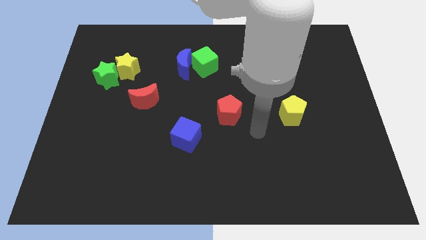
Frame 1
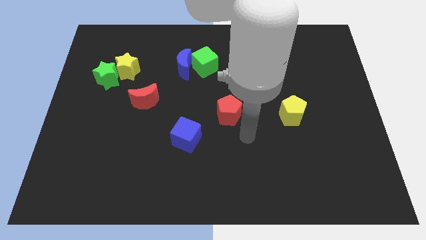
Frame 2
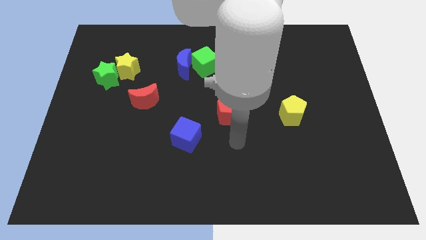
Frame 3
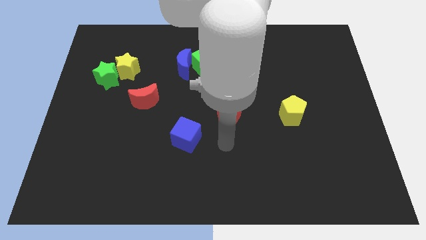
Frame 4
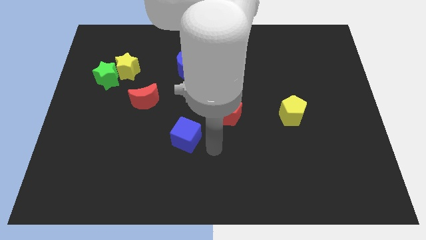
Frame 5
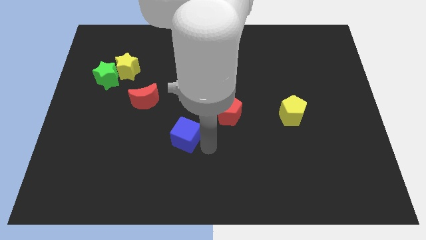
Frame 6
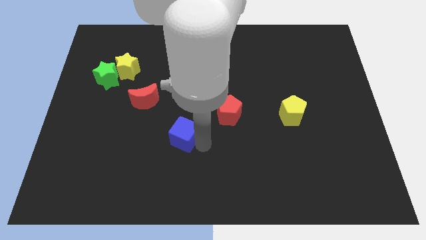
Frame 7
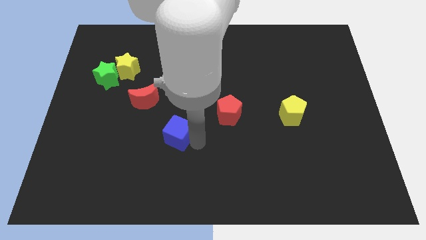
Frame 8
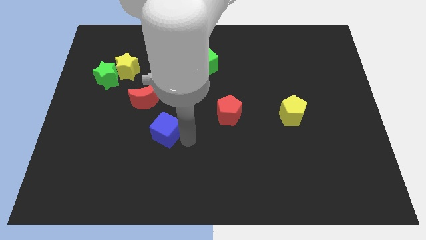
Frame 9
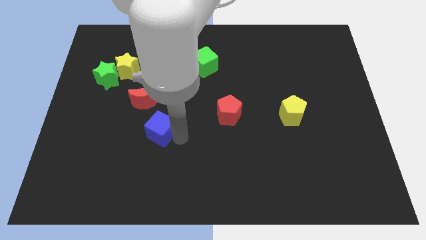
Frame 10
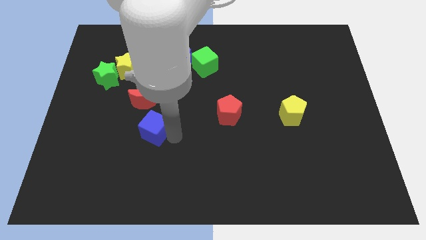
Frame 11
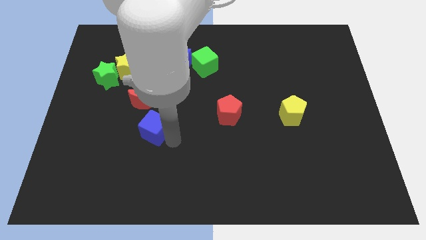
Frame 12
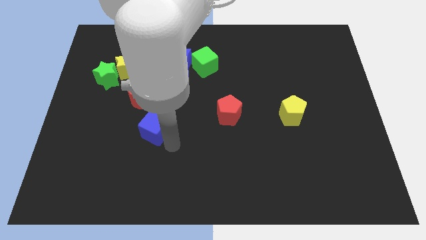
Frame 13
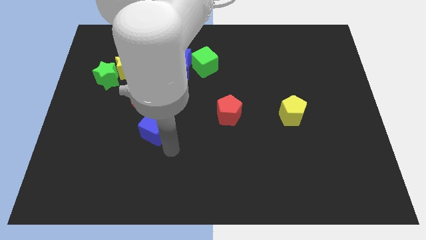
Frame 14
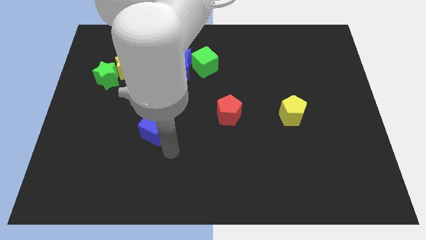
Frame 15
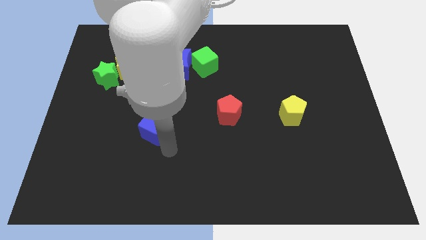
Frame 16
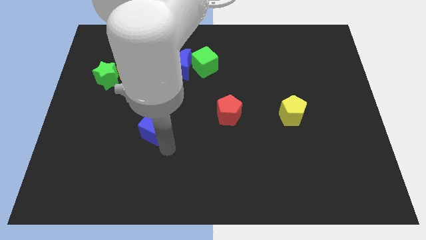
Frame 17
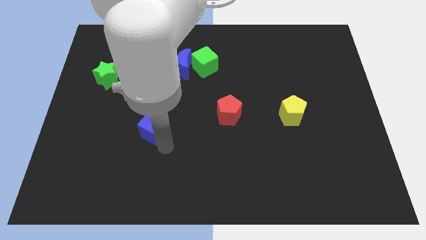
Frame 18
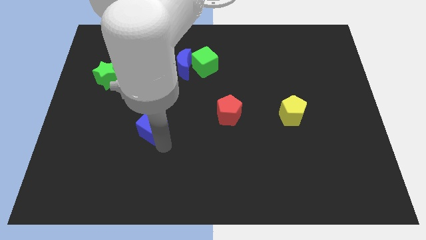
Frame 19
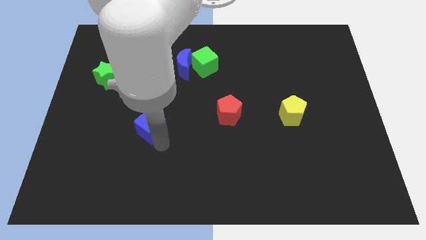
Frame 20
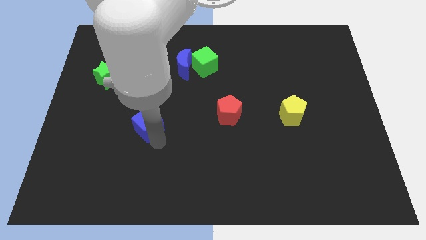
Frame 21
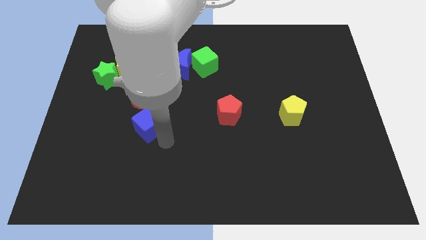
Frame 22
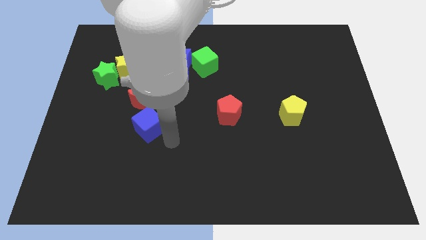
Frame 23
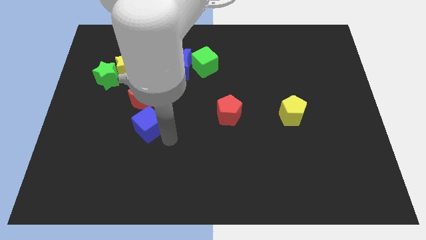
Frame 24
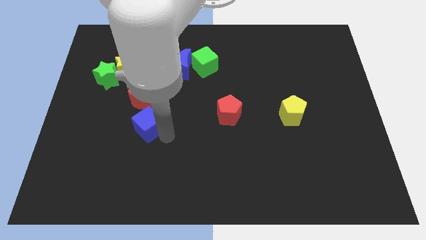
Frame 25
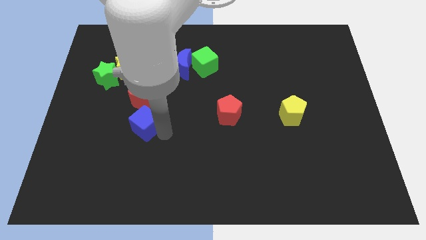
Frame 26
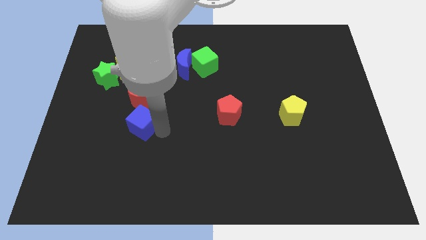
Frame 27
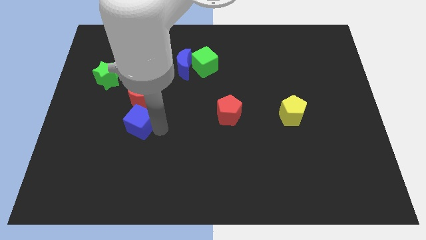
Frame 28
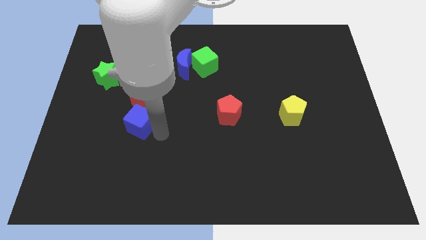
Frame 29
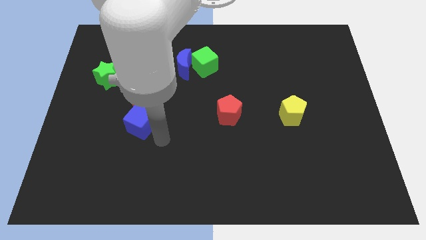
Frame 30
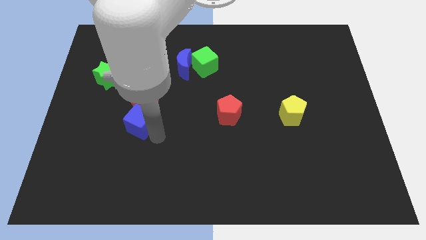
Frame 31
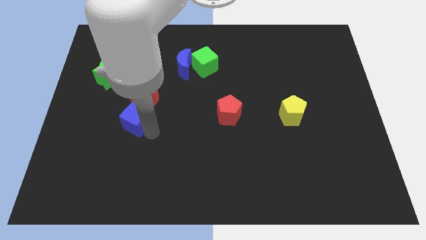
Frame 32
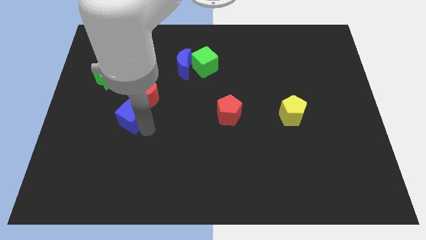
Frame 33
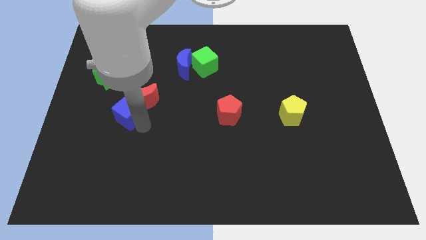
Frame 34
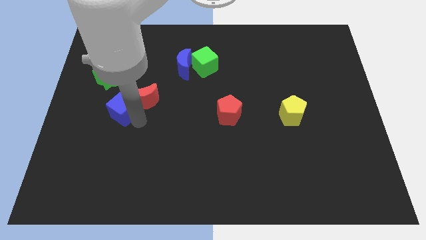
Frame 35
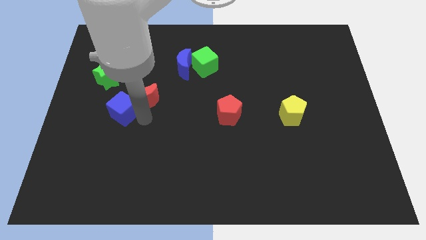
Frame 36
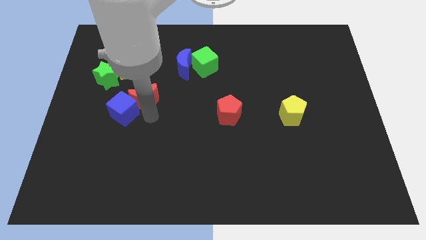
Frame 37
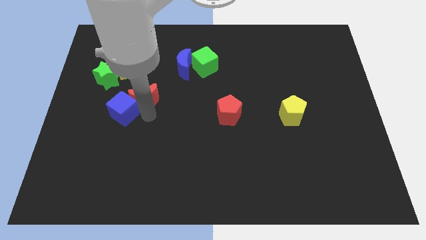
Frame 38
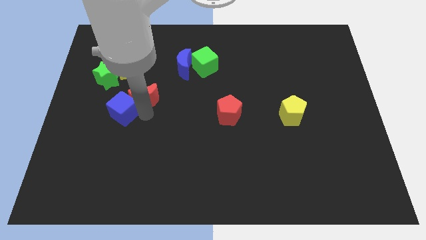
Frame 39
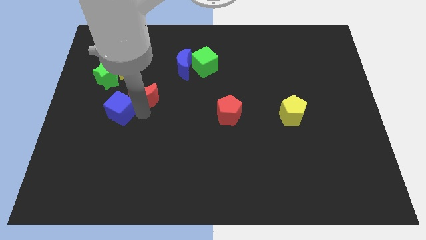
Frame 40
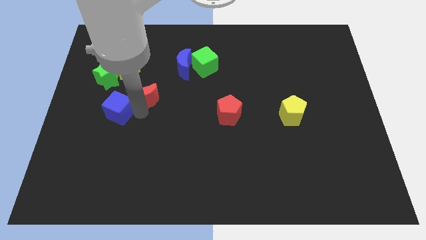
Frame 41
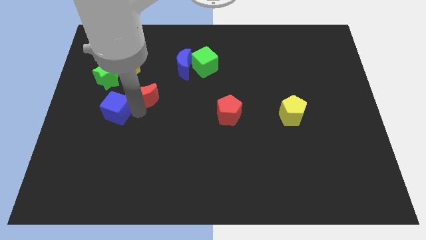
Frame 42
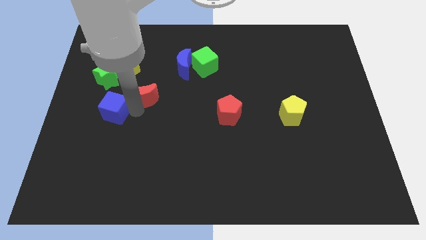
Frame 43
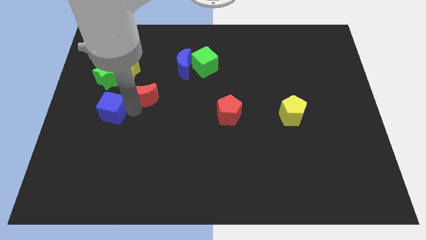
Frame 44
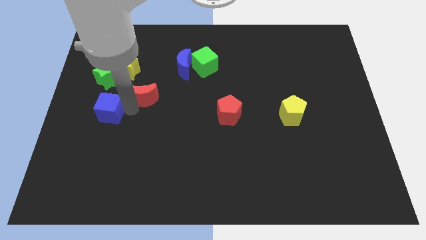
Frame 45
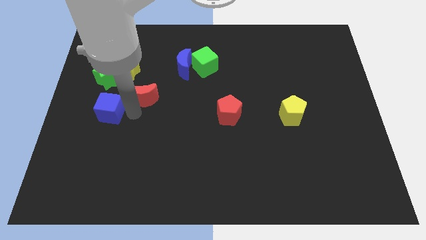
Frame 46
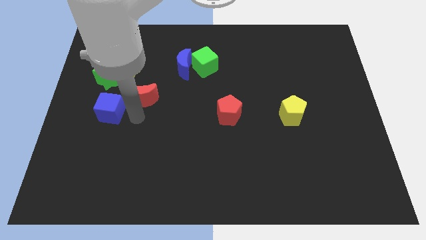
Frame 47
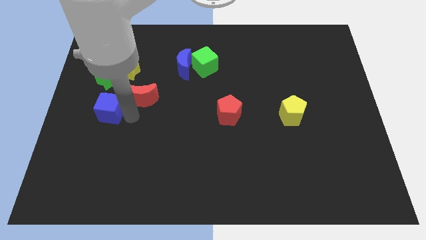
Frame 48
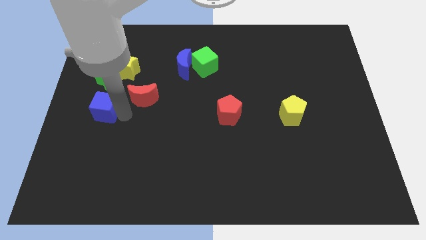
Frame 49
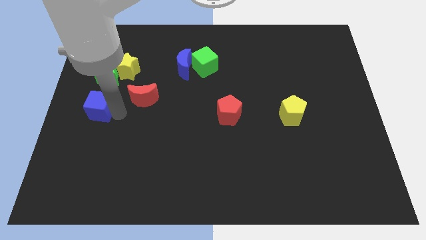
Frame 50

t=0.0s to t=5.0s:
push the blue cube to the left side

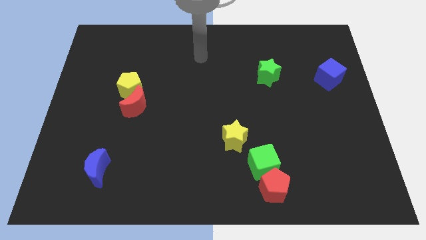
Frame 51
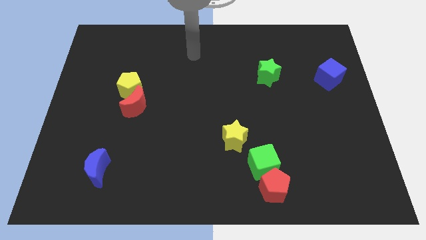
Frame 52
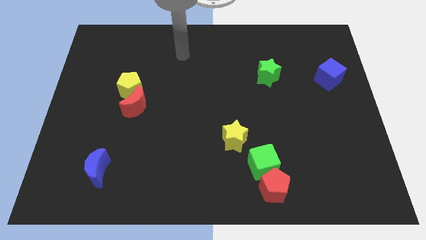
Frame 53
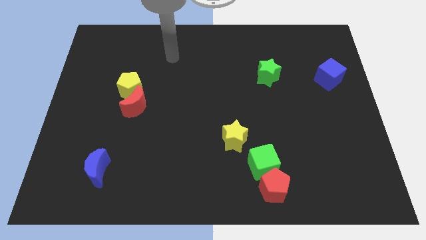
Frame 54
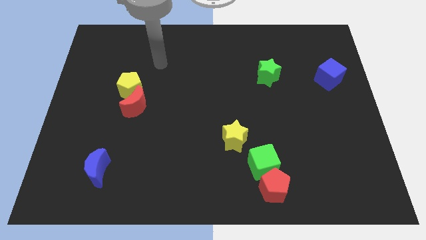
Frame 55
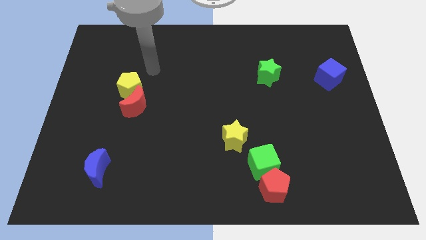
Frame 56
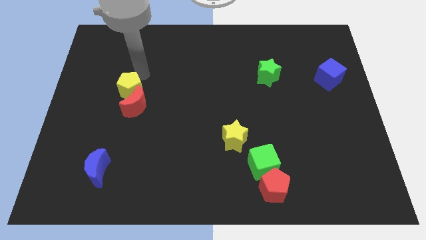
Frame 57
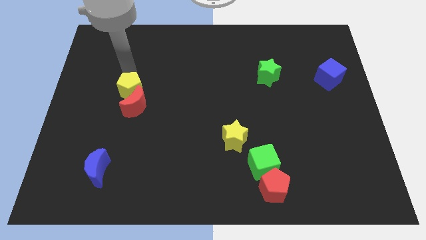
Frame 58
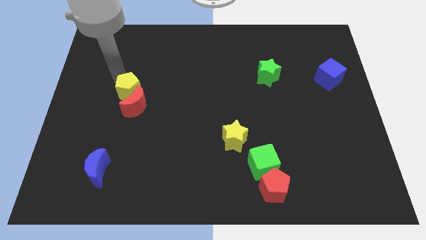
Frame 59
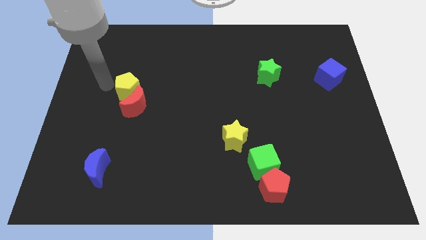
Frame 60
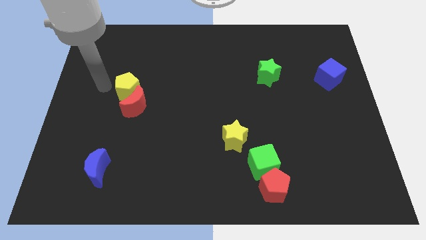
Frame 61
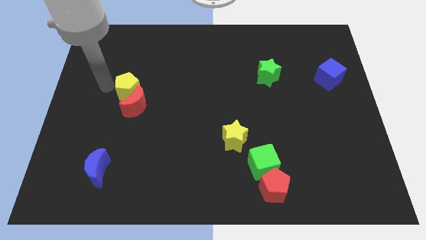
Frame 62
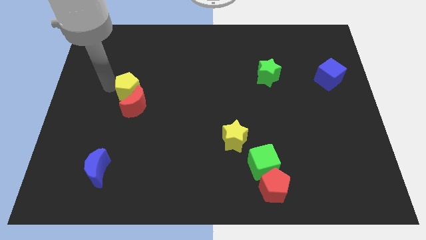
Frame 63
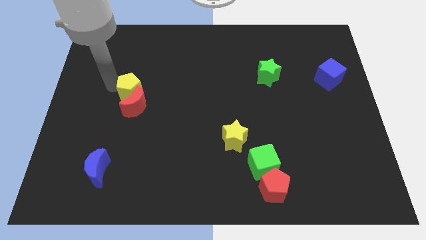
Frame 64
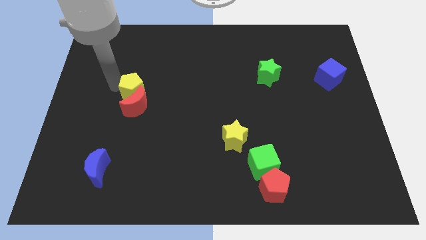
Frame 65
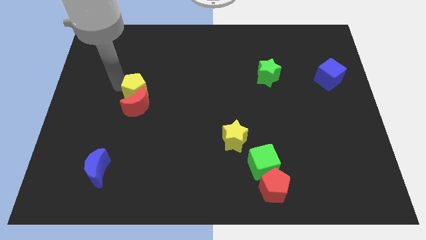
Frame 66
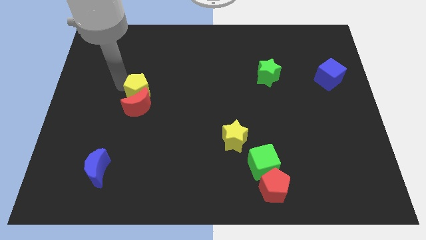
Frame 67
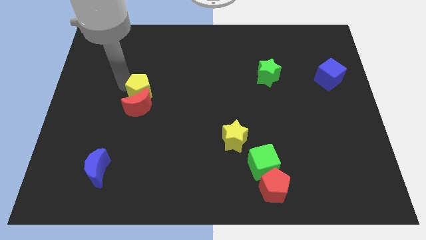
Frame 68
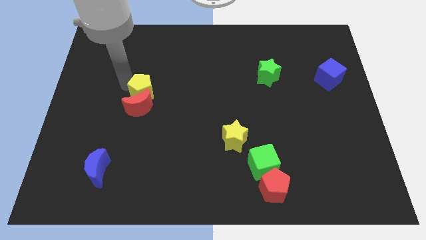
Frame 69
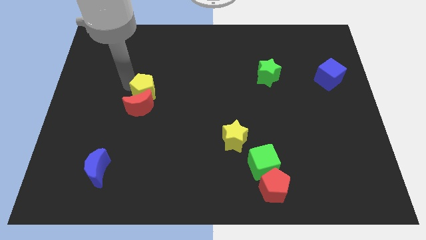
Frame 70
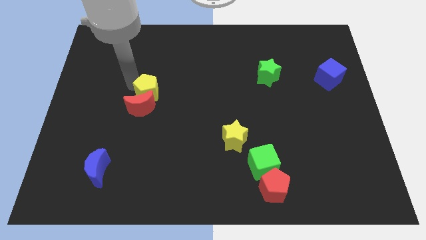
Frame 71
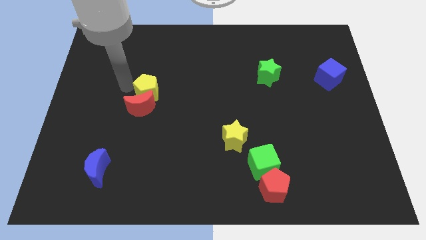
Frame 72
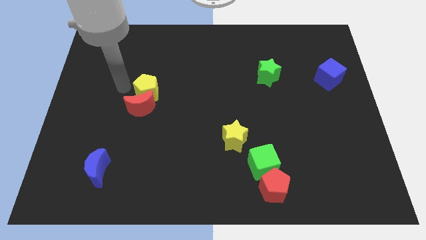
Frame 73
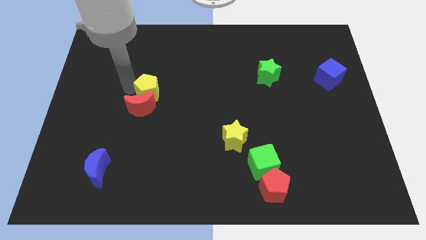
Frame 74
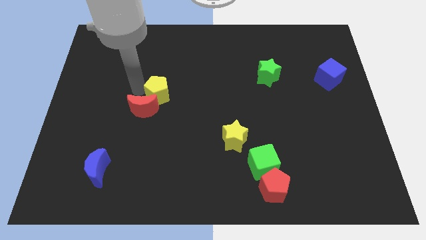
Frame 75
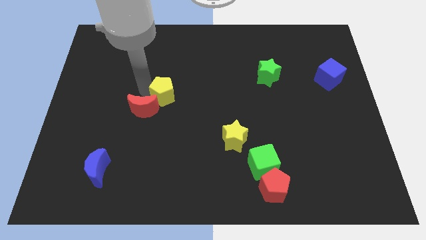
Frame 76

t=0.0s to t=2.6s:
put the yellow pentagon to the center
